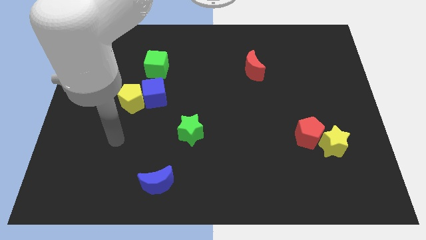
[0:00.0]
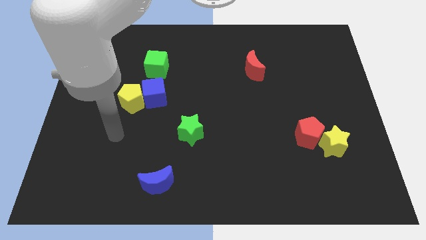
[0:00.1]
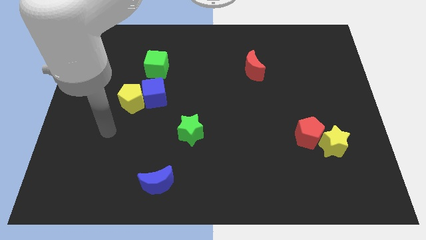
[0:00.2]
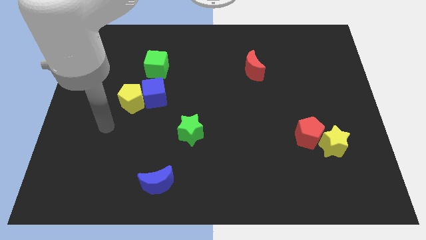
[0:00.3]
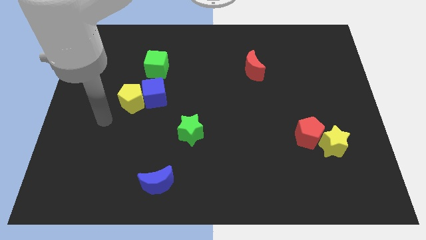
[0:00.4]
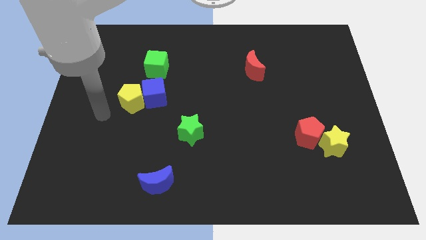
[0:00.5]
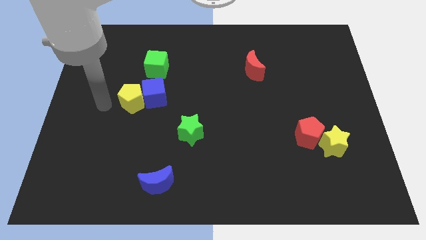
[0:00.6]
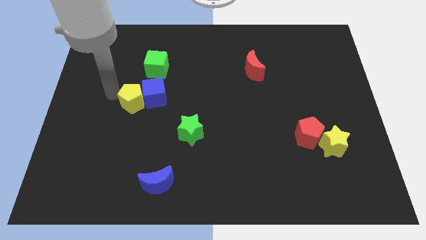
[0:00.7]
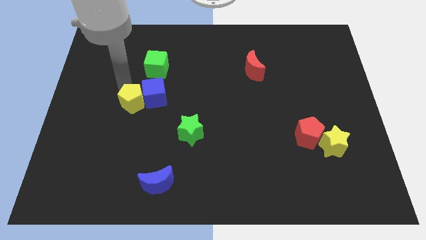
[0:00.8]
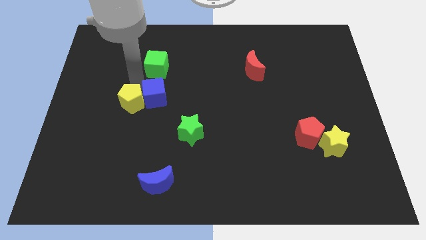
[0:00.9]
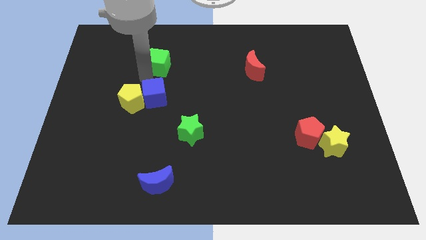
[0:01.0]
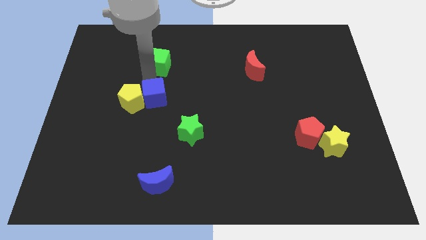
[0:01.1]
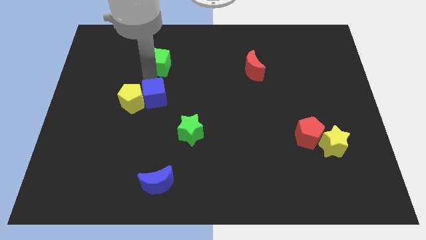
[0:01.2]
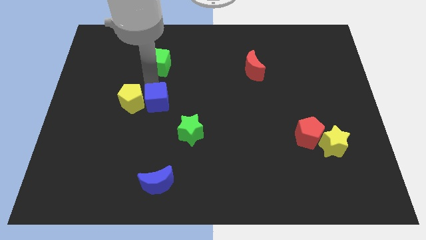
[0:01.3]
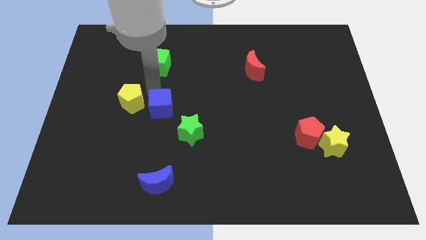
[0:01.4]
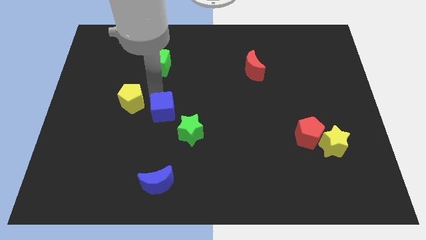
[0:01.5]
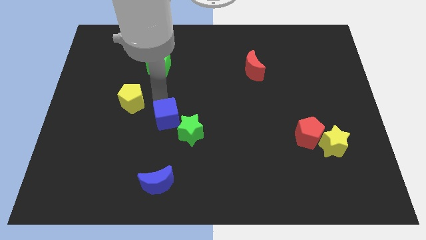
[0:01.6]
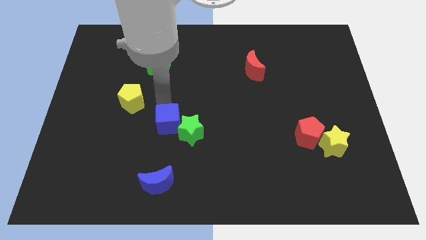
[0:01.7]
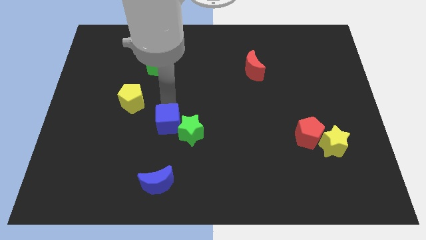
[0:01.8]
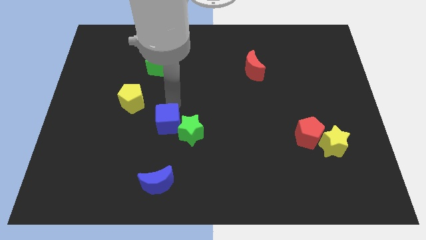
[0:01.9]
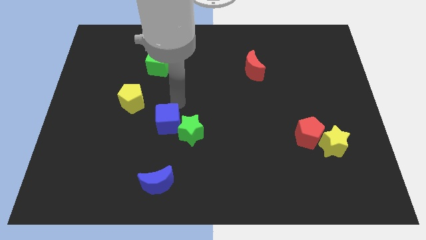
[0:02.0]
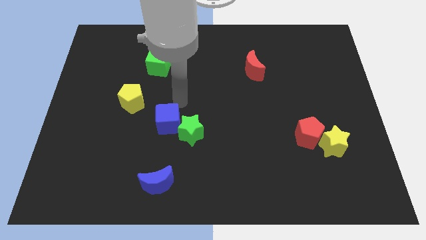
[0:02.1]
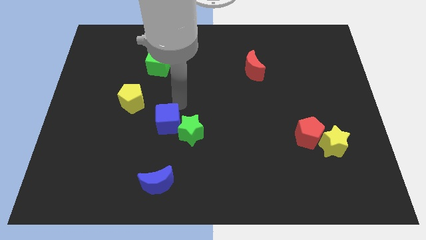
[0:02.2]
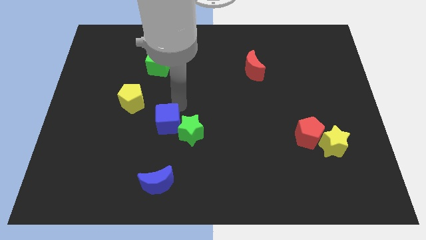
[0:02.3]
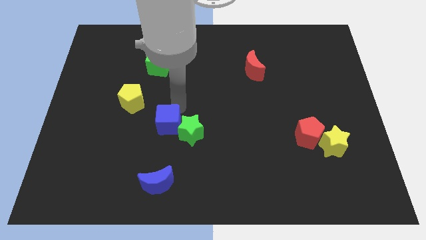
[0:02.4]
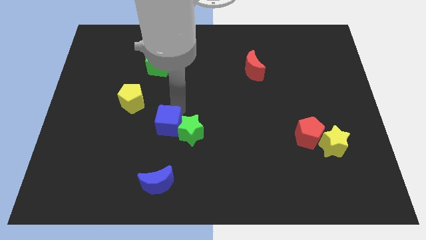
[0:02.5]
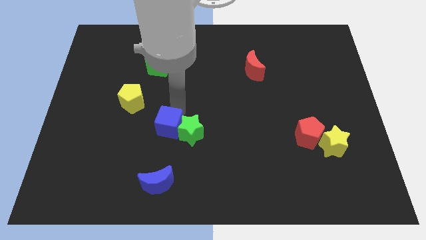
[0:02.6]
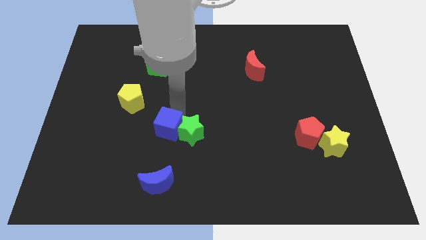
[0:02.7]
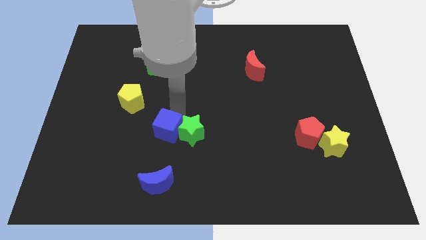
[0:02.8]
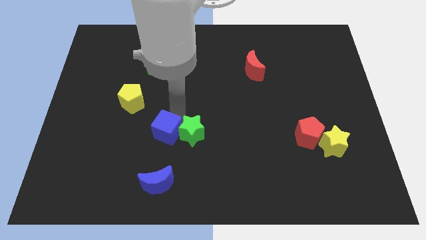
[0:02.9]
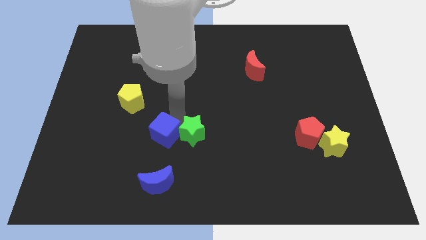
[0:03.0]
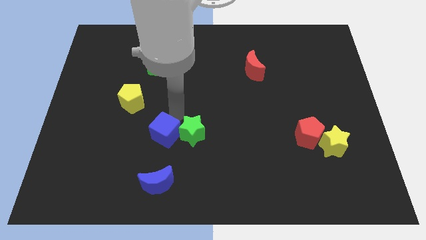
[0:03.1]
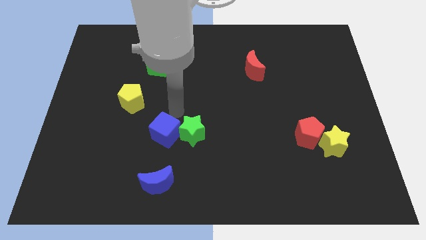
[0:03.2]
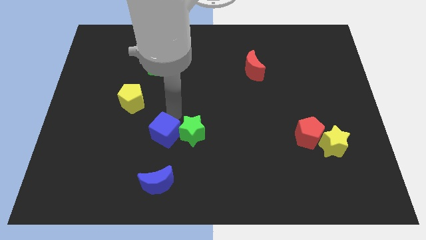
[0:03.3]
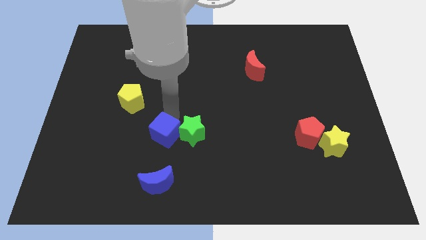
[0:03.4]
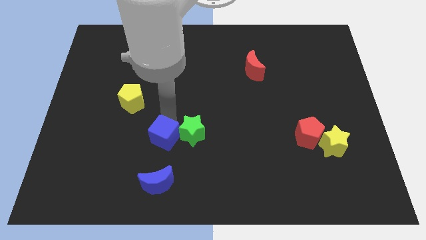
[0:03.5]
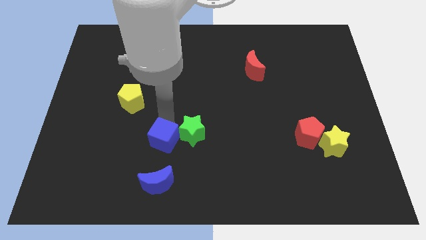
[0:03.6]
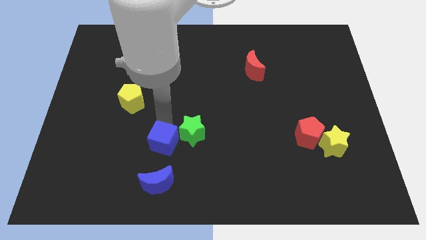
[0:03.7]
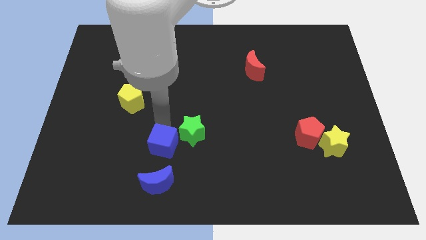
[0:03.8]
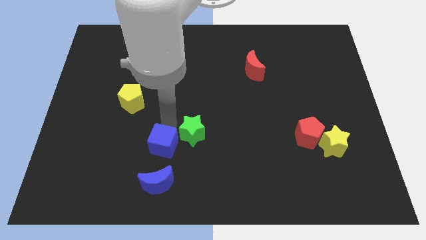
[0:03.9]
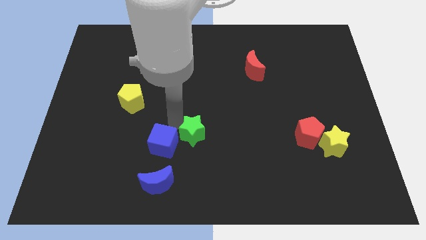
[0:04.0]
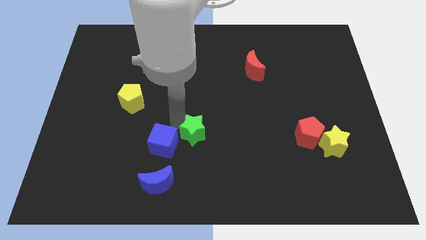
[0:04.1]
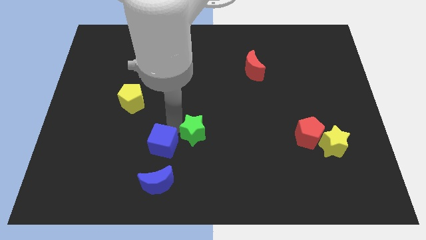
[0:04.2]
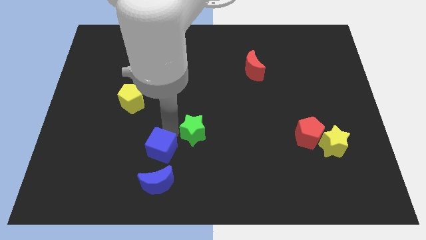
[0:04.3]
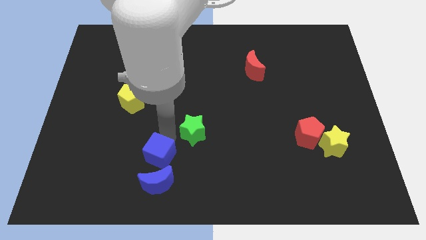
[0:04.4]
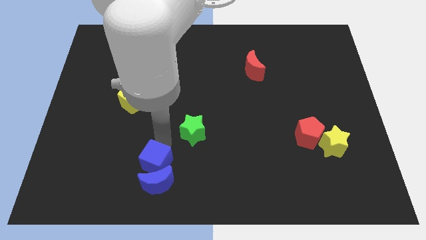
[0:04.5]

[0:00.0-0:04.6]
move the blue cube next to the blue moon

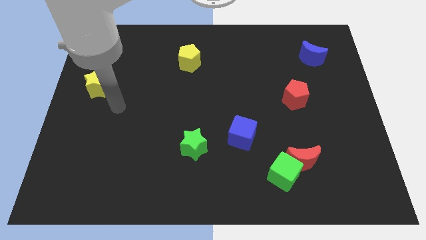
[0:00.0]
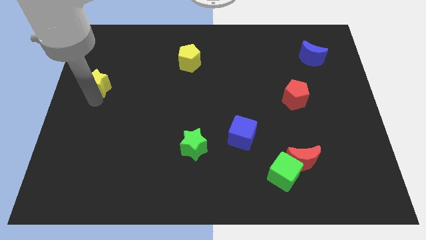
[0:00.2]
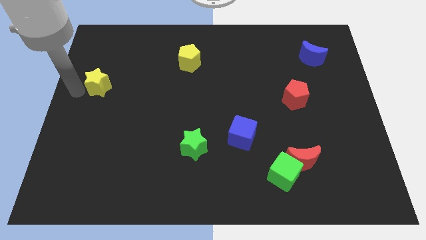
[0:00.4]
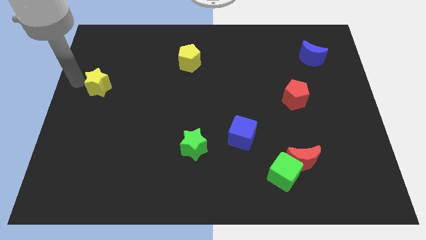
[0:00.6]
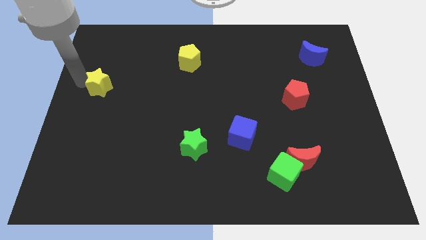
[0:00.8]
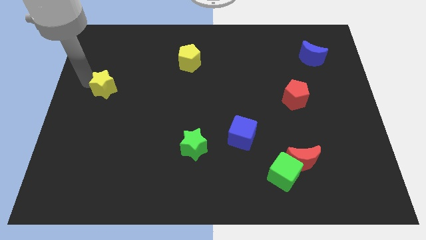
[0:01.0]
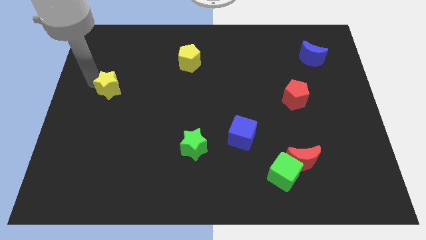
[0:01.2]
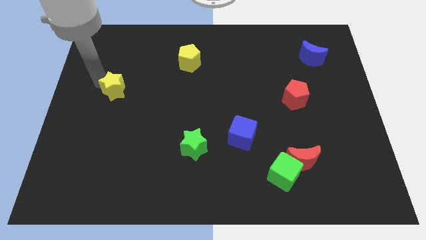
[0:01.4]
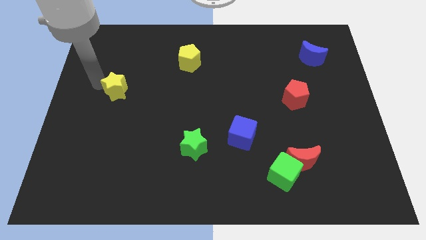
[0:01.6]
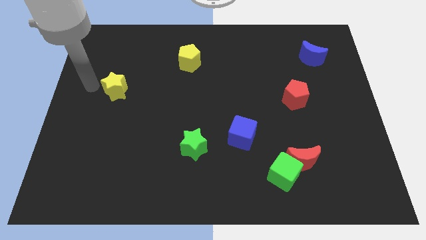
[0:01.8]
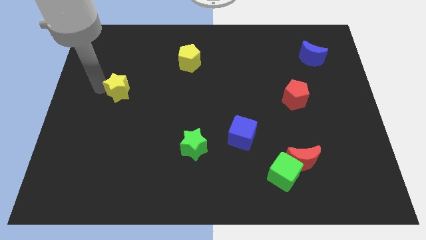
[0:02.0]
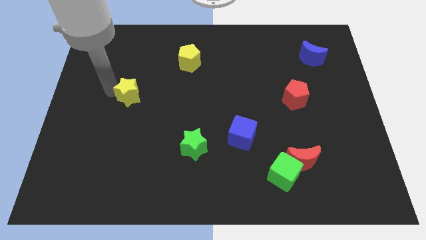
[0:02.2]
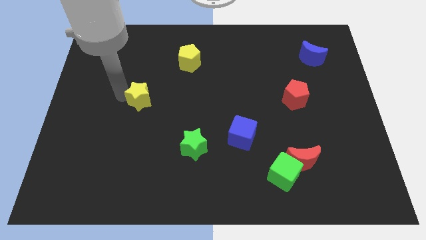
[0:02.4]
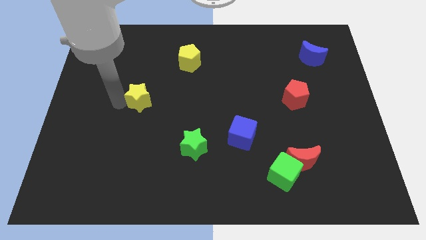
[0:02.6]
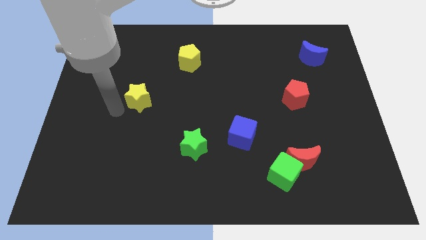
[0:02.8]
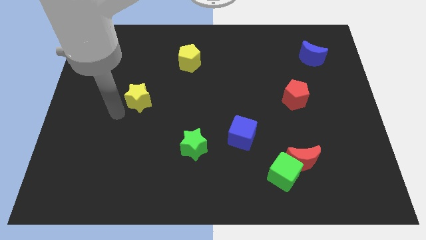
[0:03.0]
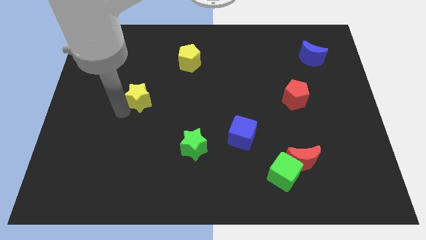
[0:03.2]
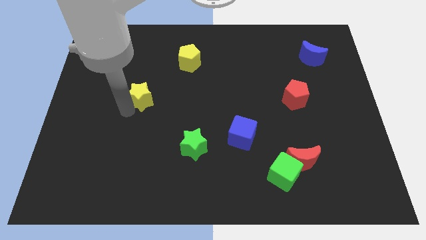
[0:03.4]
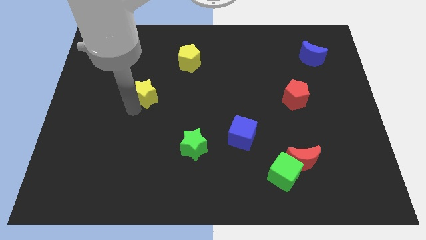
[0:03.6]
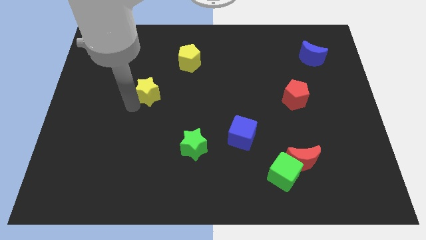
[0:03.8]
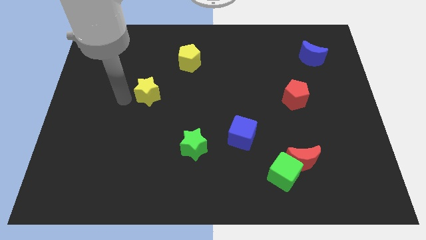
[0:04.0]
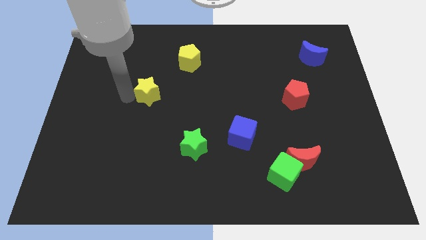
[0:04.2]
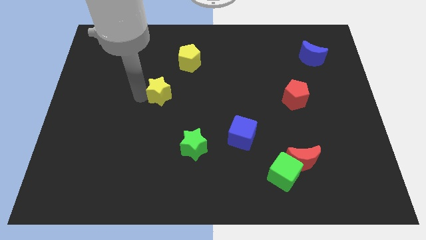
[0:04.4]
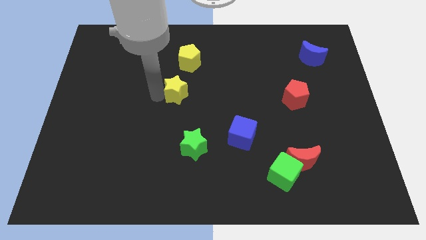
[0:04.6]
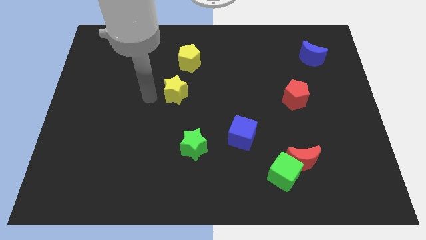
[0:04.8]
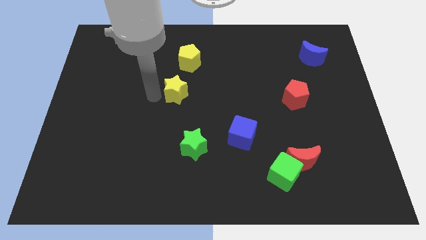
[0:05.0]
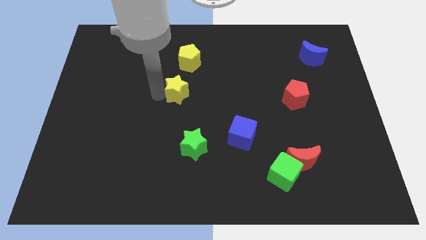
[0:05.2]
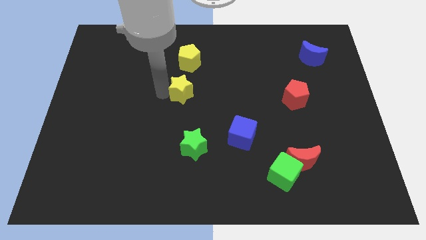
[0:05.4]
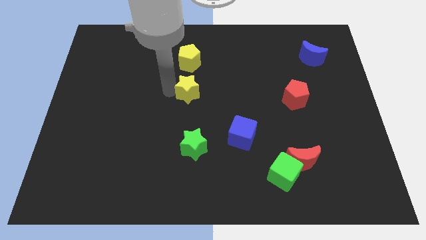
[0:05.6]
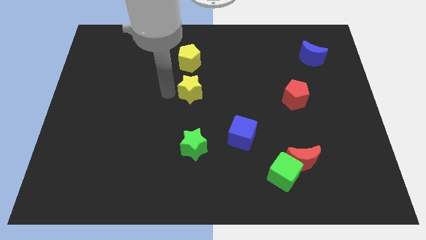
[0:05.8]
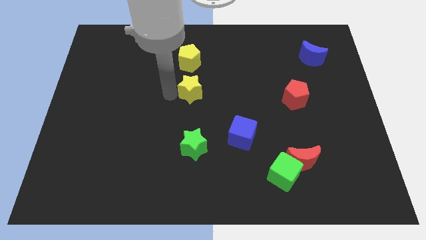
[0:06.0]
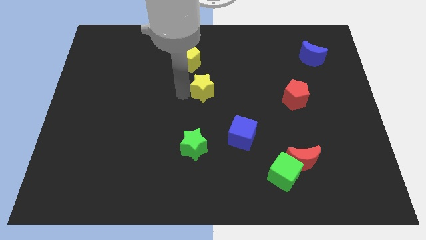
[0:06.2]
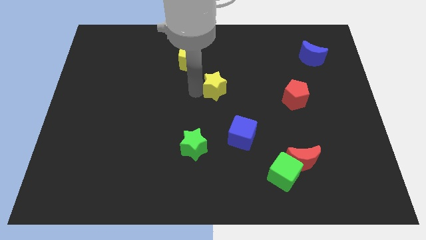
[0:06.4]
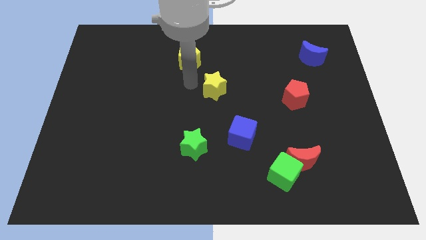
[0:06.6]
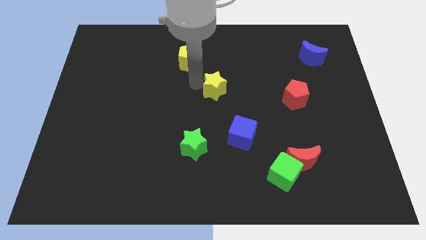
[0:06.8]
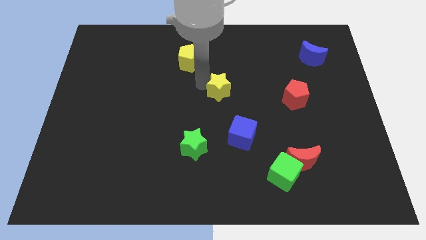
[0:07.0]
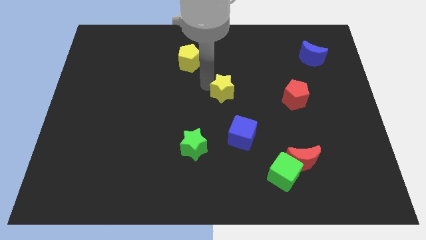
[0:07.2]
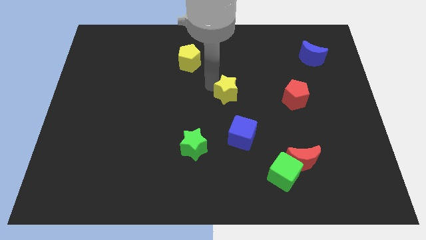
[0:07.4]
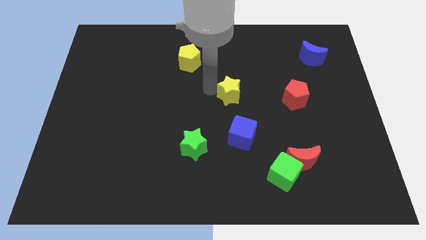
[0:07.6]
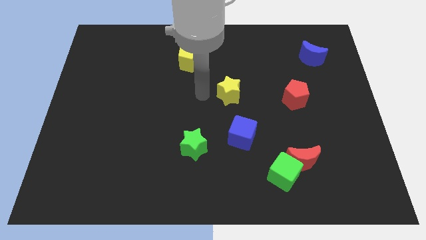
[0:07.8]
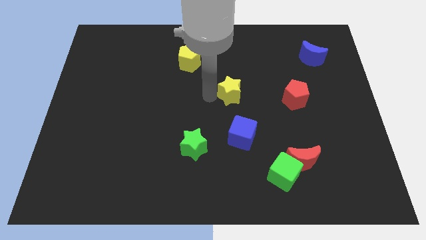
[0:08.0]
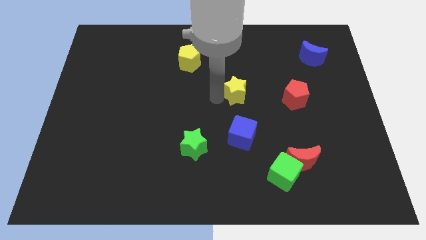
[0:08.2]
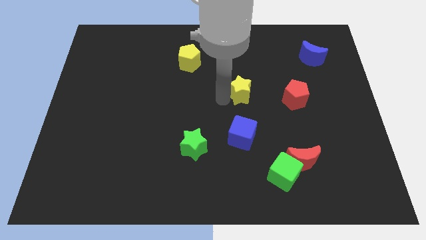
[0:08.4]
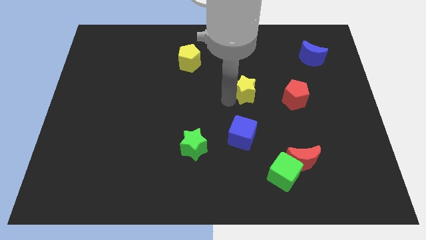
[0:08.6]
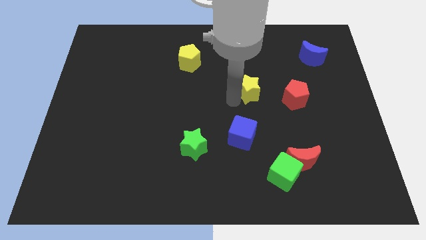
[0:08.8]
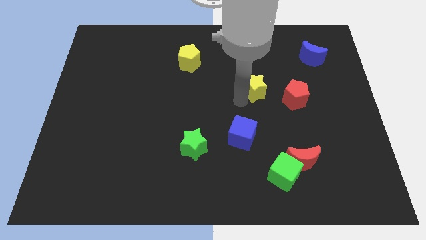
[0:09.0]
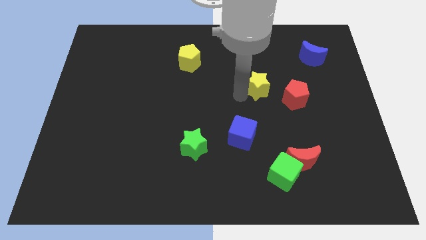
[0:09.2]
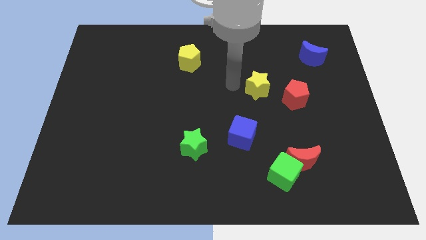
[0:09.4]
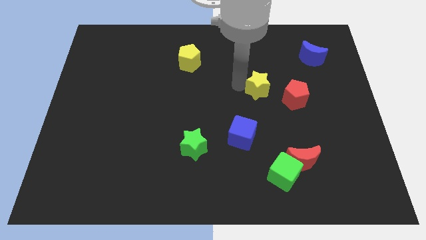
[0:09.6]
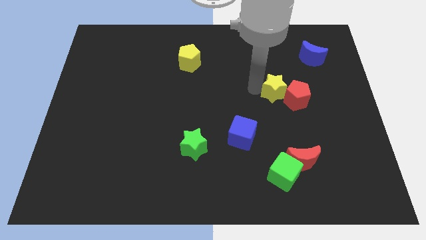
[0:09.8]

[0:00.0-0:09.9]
slide the yellow star next to the red pentagon
